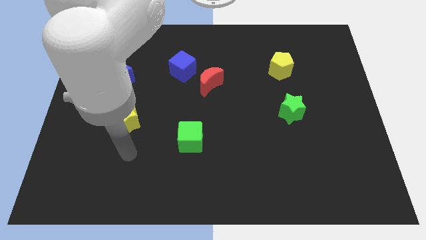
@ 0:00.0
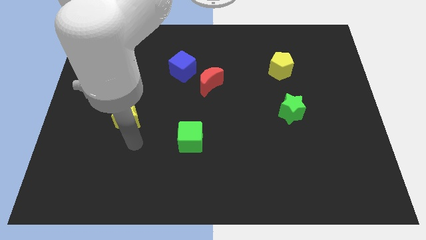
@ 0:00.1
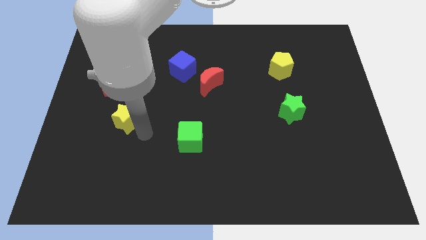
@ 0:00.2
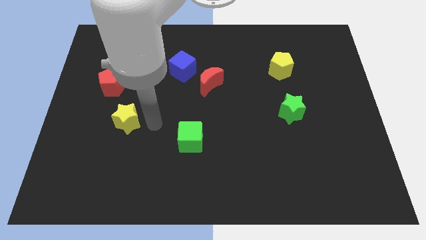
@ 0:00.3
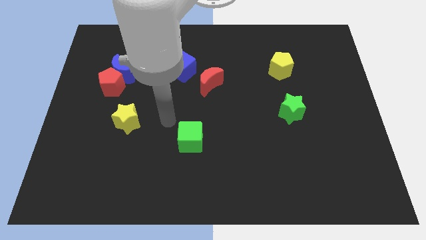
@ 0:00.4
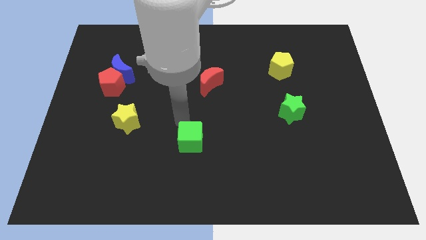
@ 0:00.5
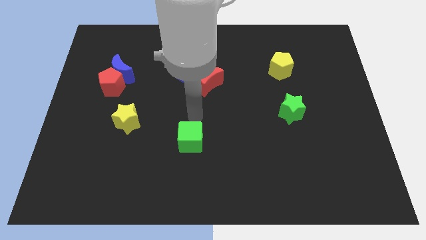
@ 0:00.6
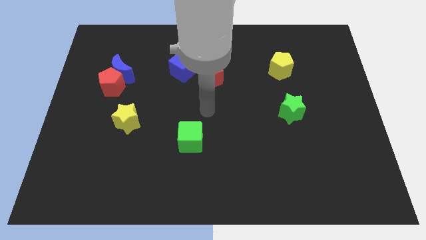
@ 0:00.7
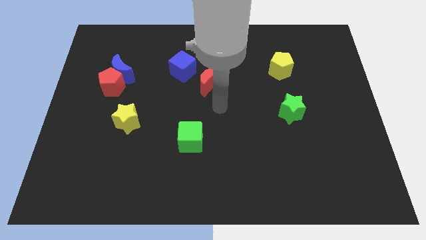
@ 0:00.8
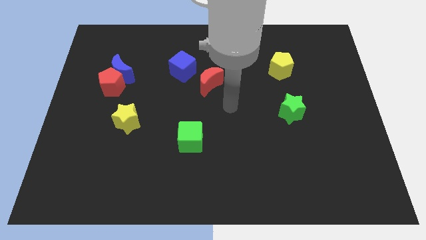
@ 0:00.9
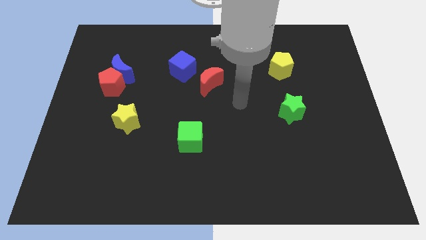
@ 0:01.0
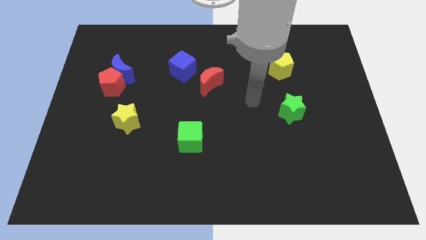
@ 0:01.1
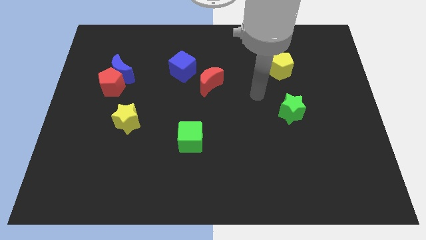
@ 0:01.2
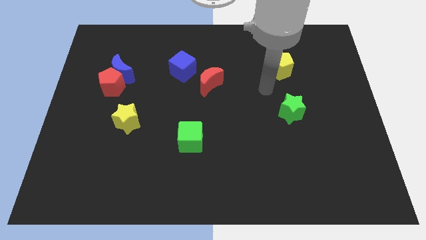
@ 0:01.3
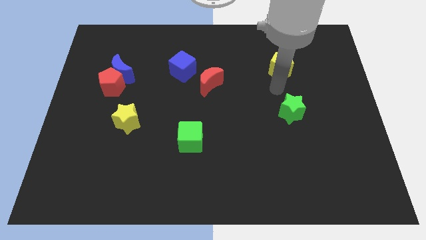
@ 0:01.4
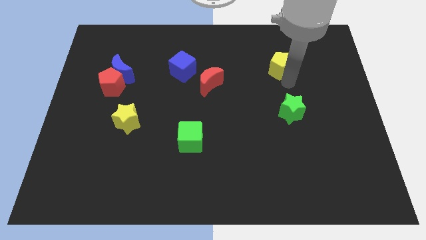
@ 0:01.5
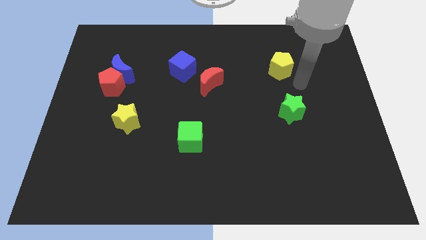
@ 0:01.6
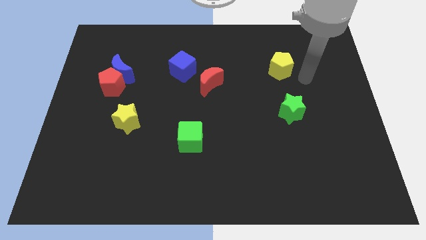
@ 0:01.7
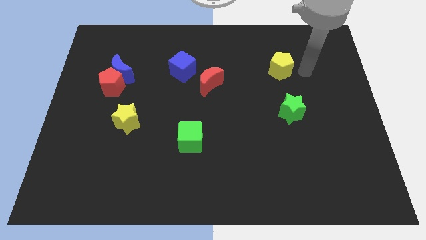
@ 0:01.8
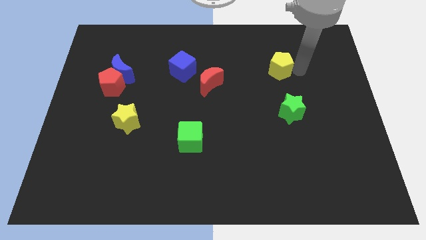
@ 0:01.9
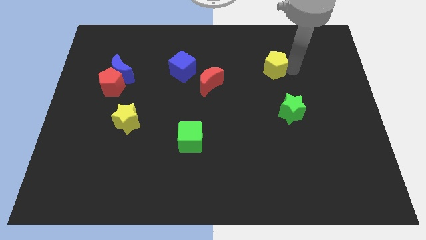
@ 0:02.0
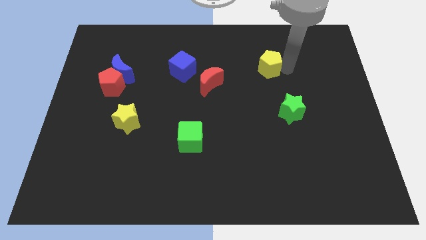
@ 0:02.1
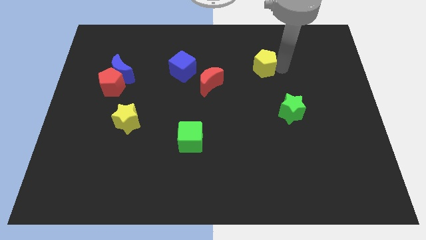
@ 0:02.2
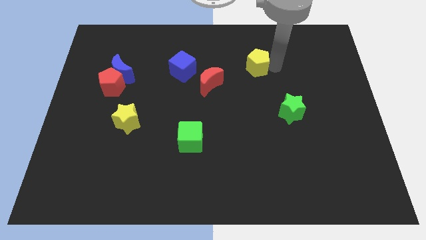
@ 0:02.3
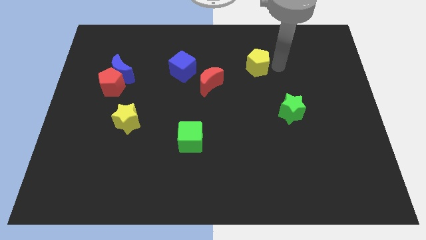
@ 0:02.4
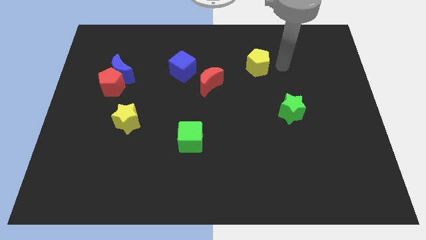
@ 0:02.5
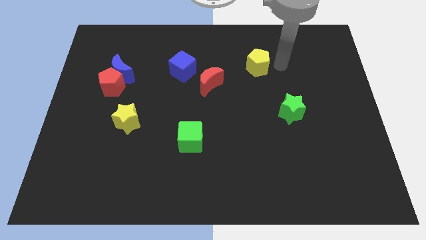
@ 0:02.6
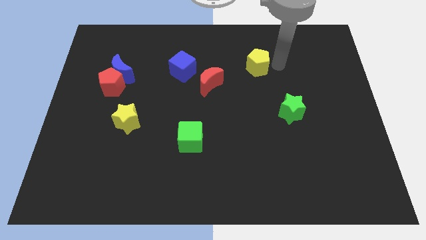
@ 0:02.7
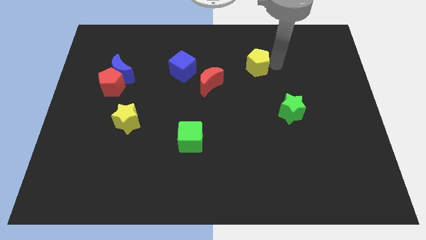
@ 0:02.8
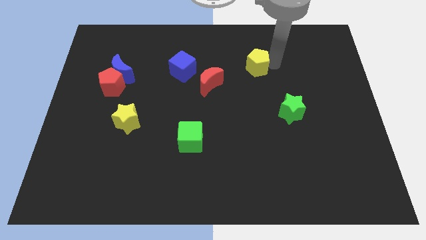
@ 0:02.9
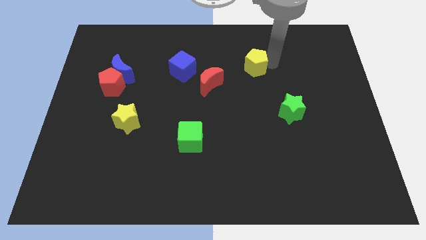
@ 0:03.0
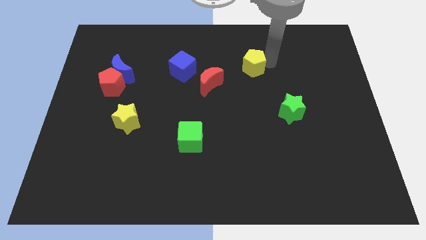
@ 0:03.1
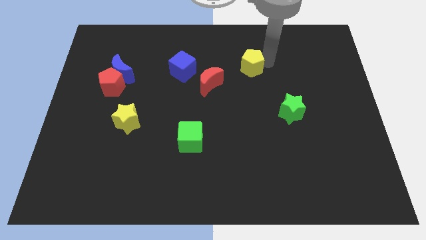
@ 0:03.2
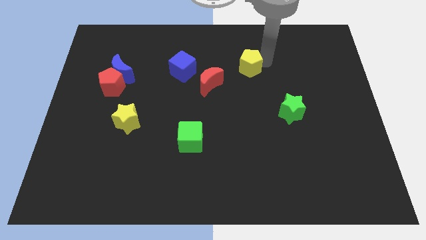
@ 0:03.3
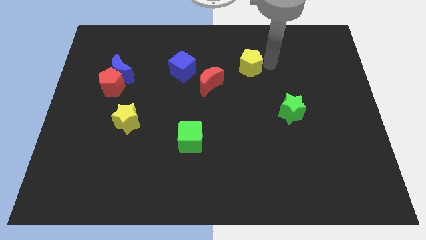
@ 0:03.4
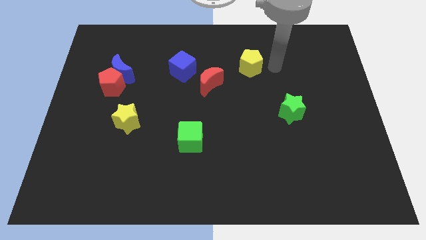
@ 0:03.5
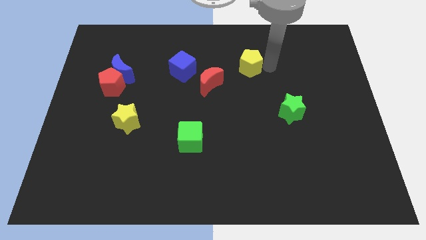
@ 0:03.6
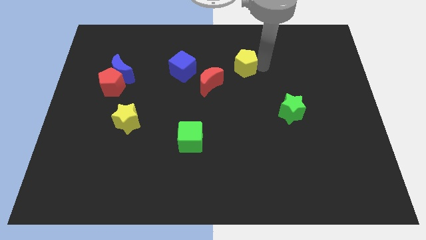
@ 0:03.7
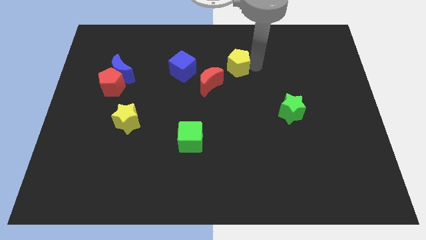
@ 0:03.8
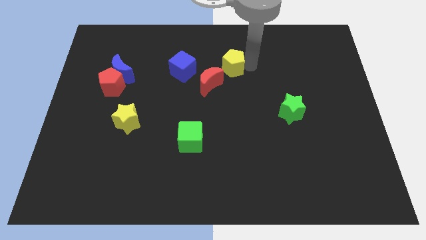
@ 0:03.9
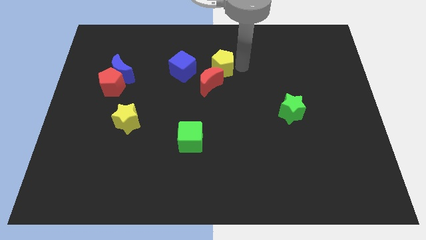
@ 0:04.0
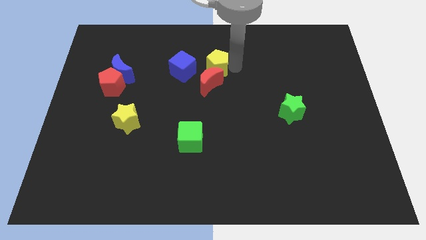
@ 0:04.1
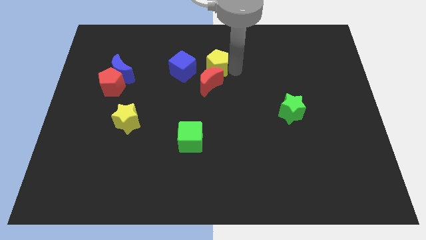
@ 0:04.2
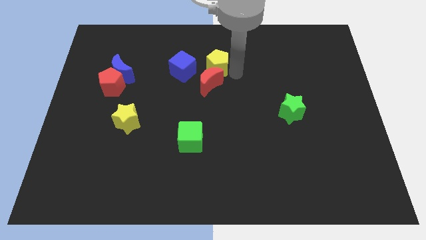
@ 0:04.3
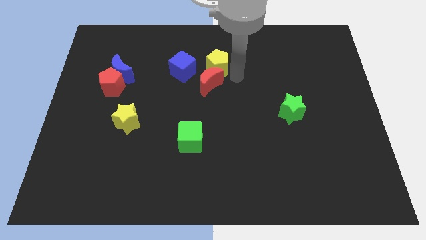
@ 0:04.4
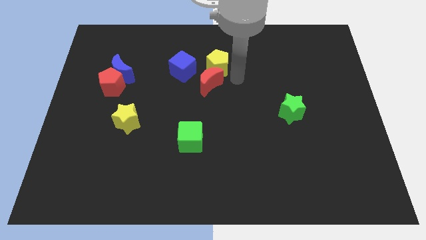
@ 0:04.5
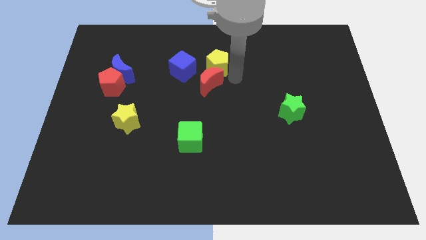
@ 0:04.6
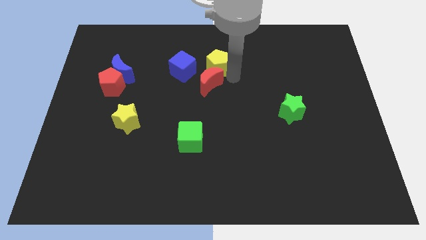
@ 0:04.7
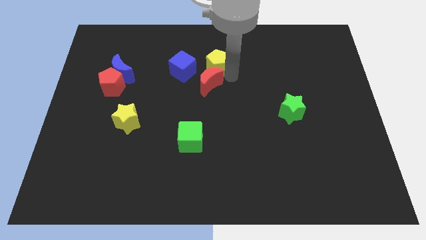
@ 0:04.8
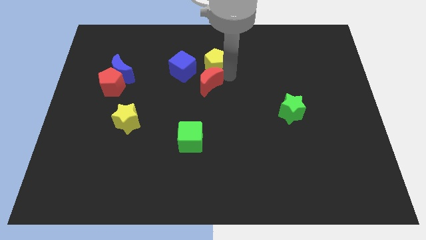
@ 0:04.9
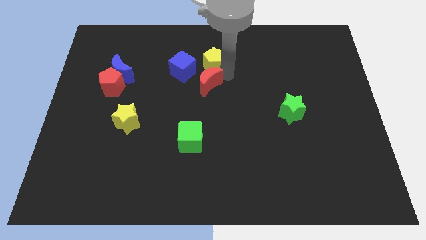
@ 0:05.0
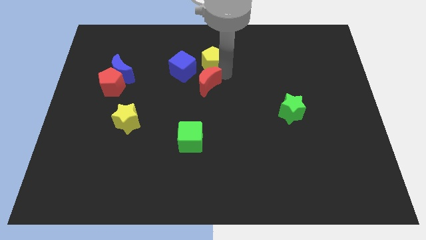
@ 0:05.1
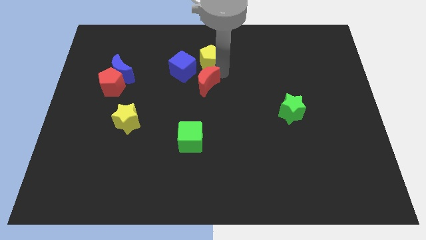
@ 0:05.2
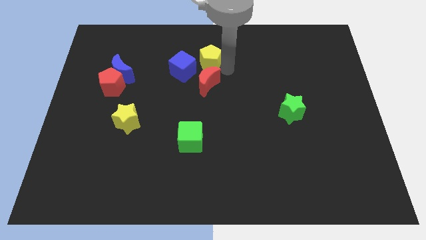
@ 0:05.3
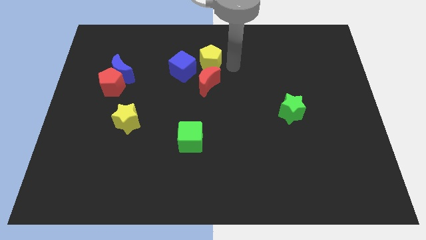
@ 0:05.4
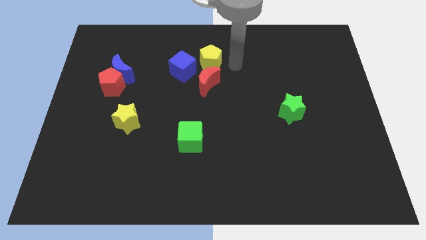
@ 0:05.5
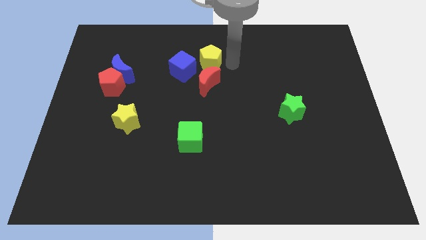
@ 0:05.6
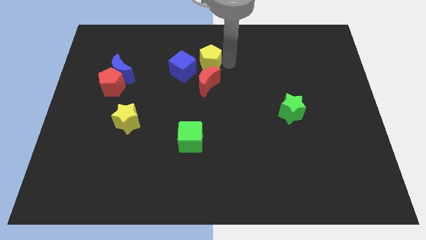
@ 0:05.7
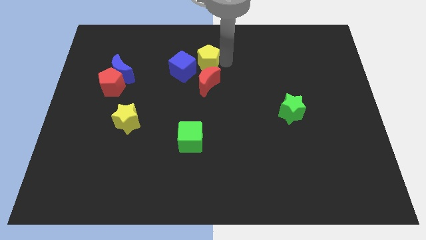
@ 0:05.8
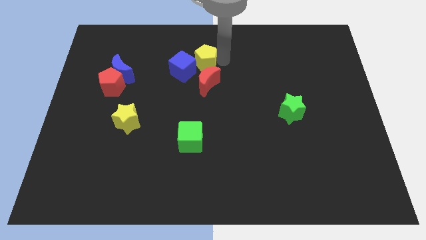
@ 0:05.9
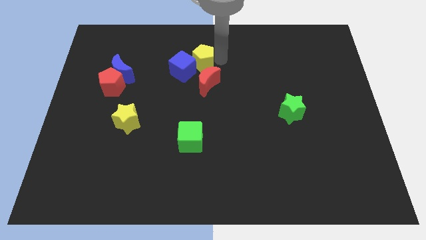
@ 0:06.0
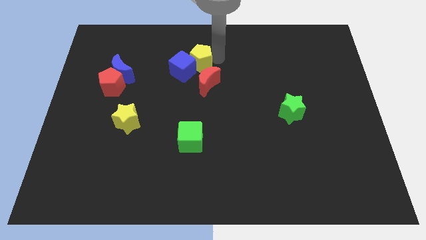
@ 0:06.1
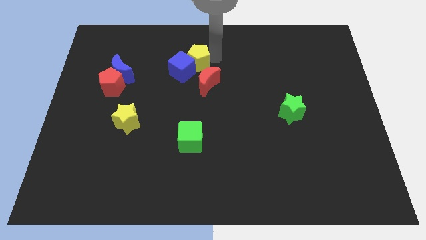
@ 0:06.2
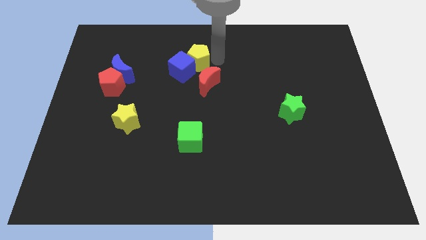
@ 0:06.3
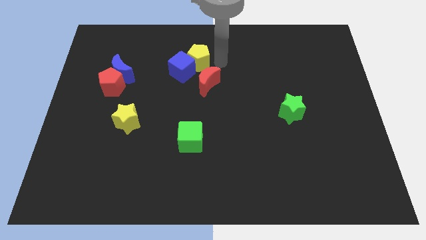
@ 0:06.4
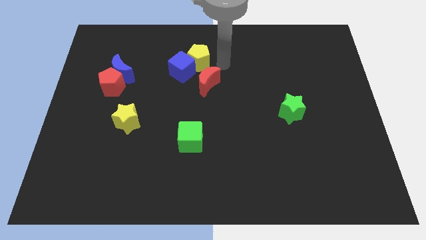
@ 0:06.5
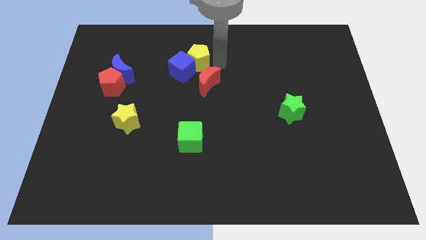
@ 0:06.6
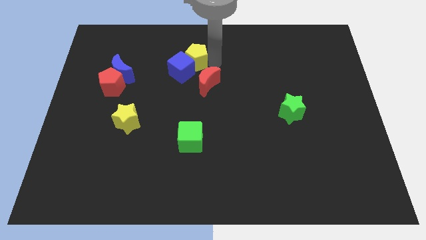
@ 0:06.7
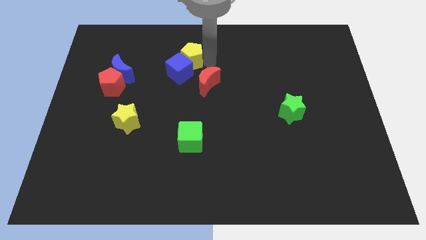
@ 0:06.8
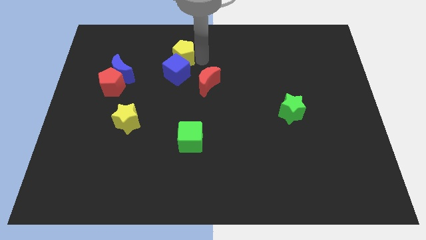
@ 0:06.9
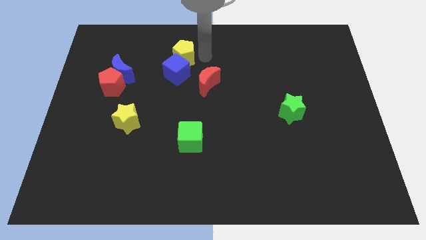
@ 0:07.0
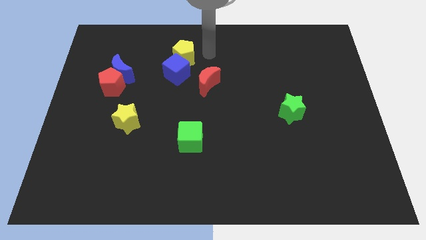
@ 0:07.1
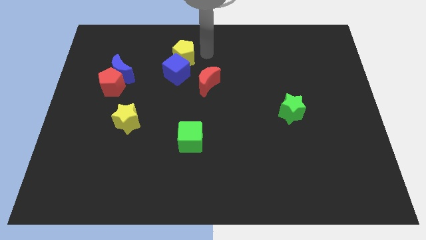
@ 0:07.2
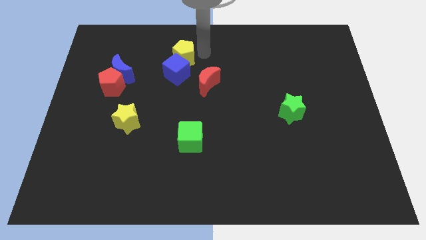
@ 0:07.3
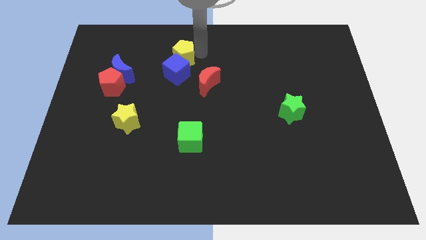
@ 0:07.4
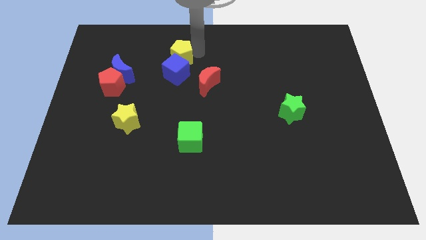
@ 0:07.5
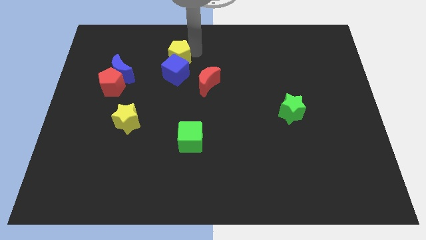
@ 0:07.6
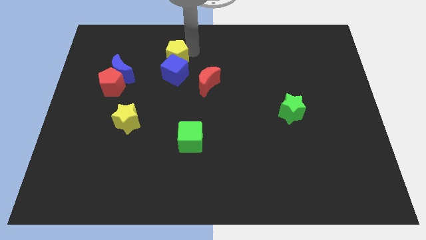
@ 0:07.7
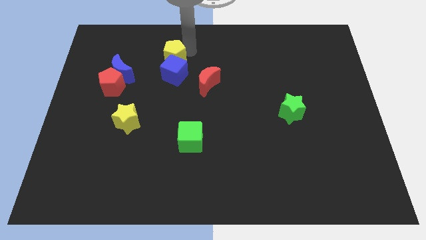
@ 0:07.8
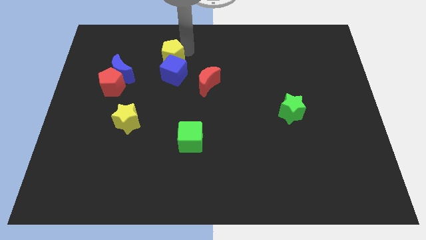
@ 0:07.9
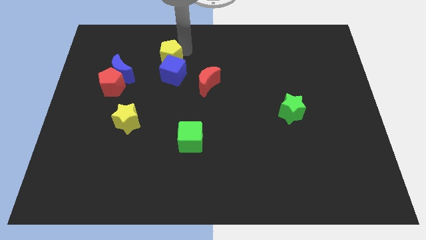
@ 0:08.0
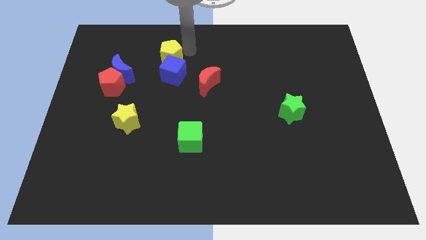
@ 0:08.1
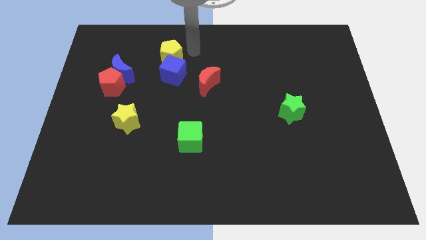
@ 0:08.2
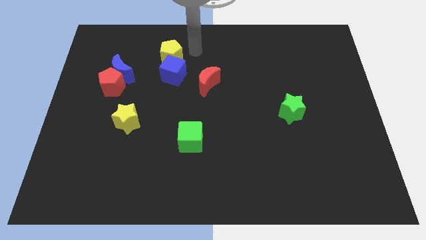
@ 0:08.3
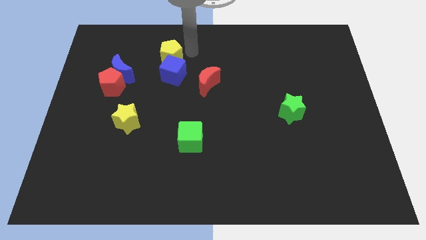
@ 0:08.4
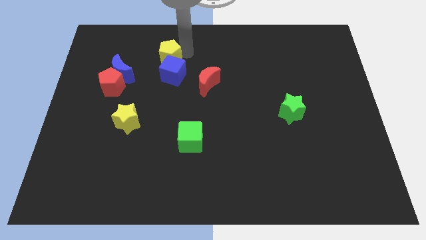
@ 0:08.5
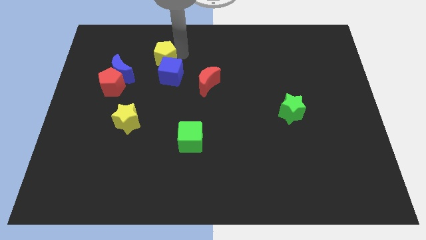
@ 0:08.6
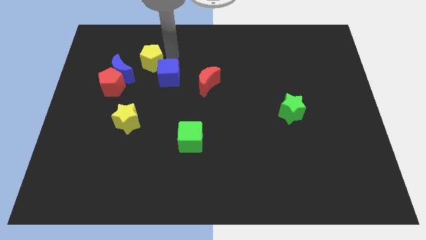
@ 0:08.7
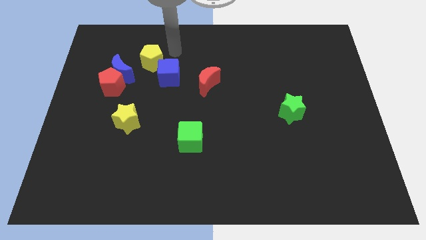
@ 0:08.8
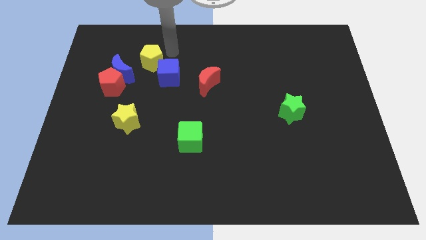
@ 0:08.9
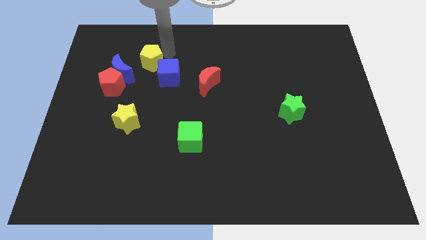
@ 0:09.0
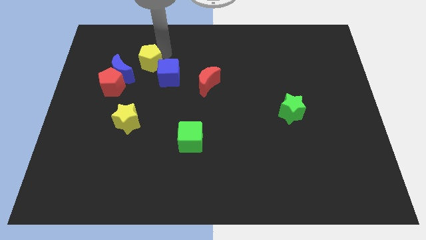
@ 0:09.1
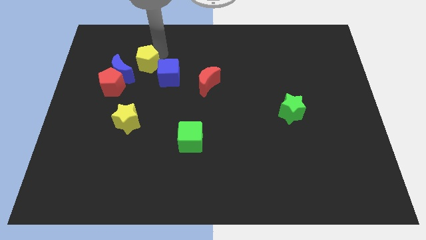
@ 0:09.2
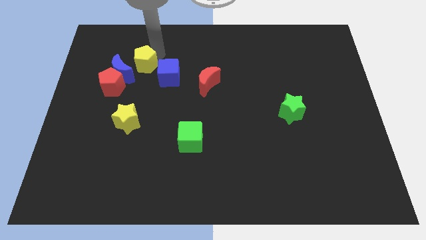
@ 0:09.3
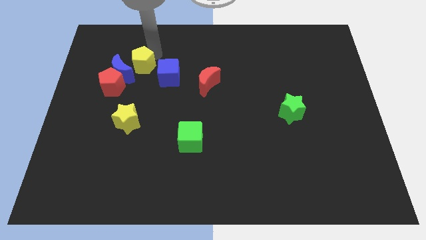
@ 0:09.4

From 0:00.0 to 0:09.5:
push the yellow pentagon to the blue moon
